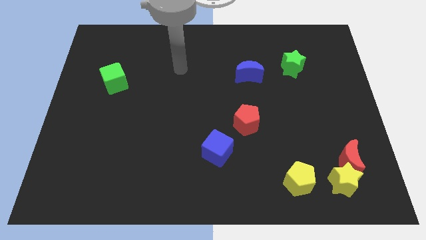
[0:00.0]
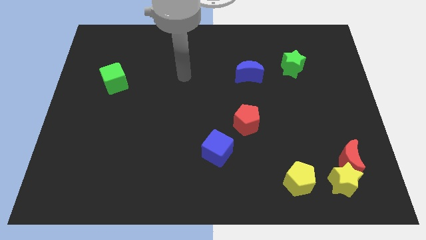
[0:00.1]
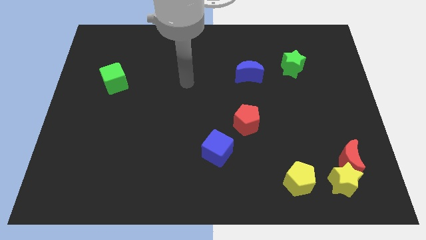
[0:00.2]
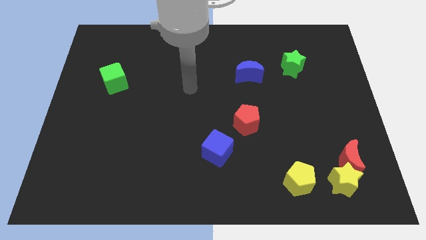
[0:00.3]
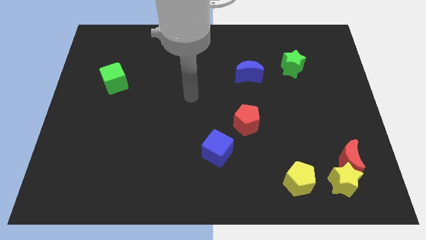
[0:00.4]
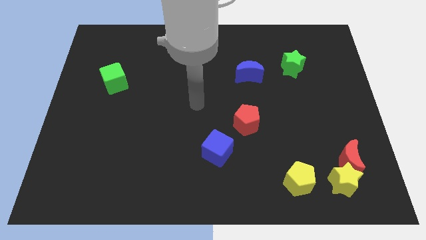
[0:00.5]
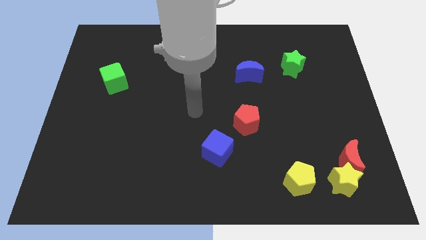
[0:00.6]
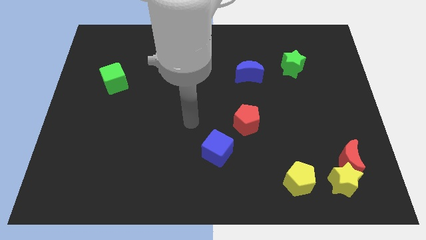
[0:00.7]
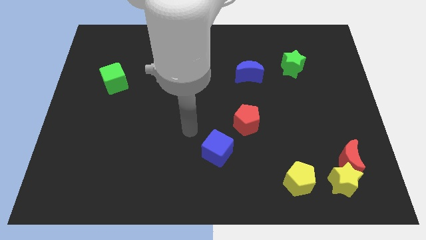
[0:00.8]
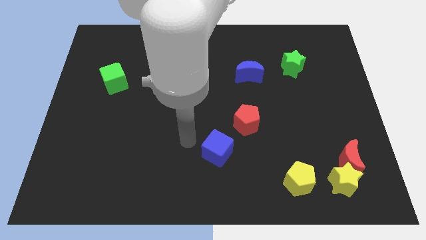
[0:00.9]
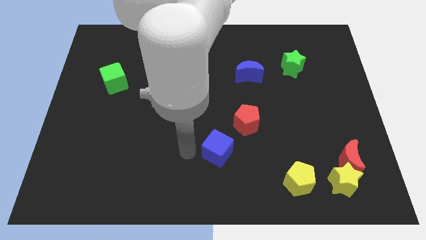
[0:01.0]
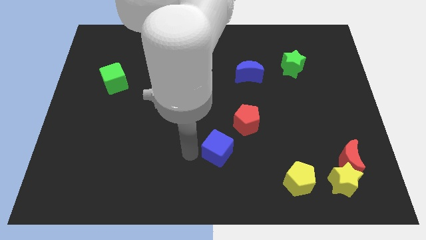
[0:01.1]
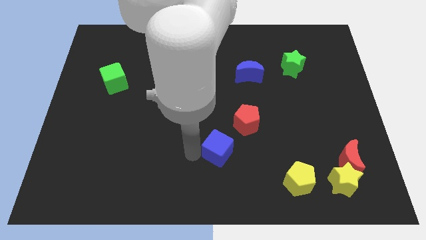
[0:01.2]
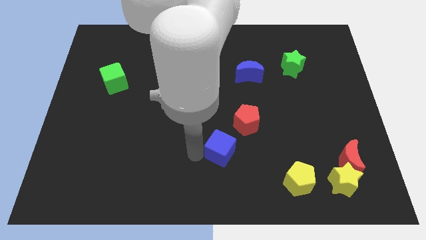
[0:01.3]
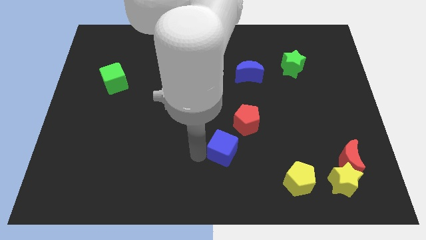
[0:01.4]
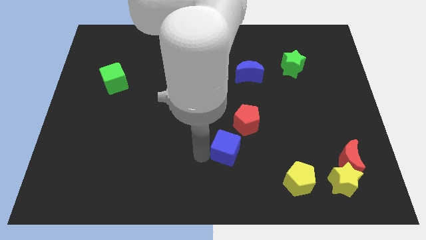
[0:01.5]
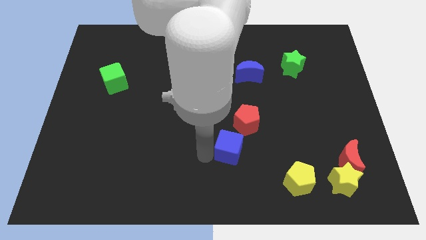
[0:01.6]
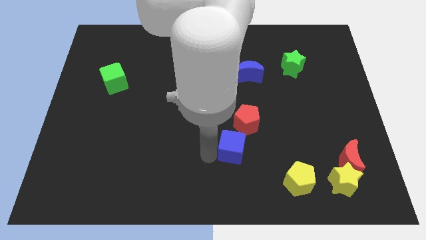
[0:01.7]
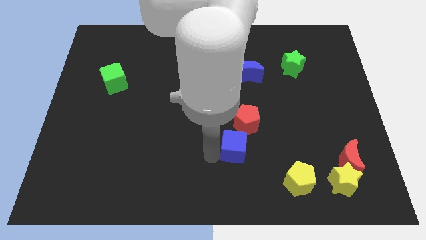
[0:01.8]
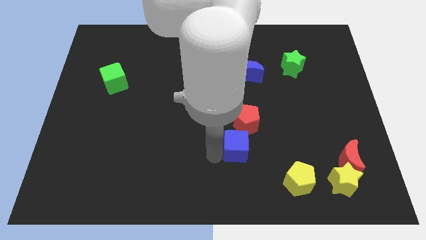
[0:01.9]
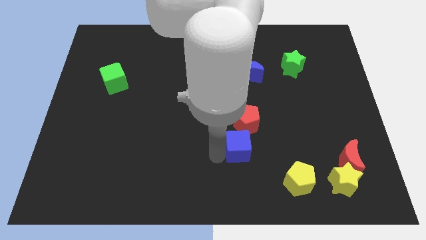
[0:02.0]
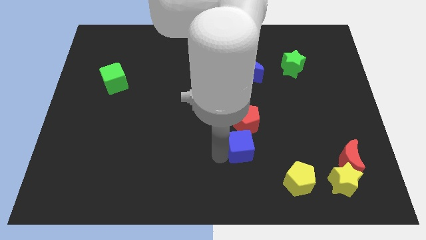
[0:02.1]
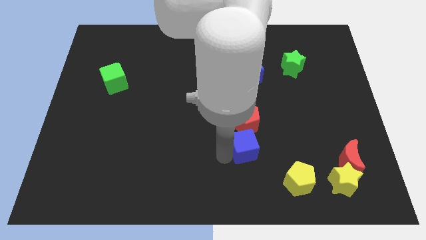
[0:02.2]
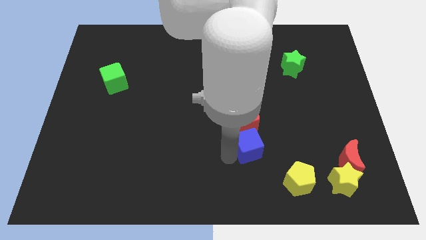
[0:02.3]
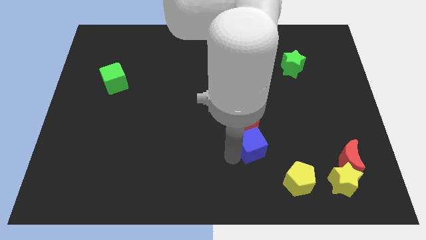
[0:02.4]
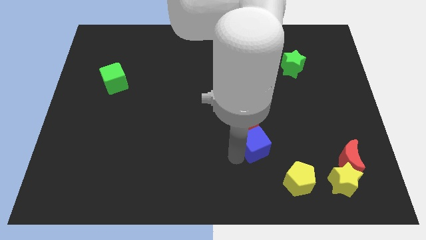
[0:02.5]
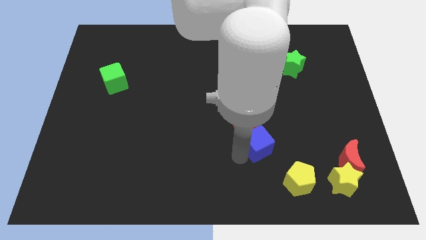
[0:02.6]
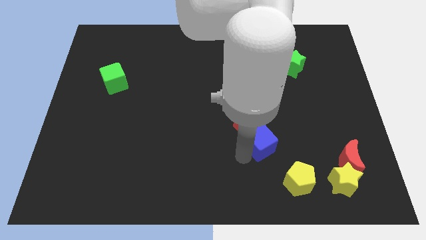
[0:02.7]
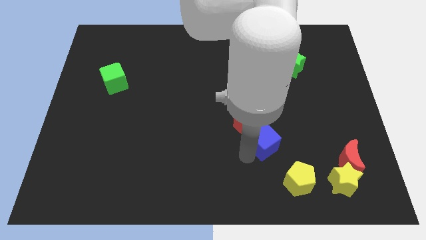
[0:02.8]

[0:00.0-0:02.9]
slightly move the blue cube upwards and to the right

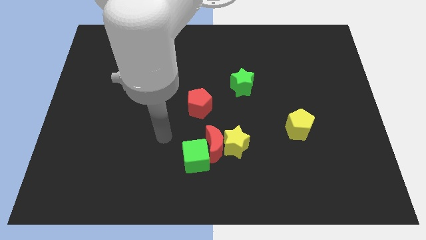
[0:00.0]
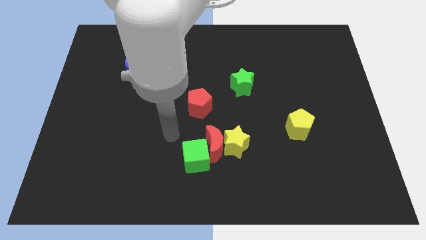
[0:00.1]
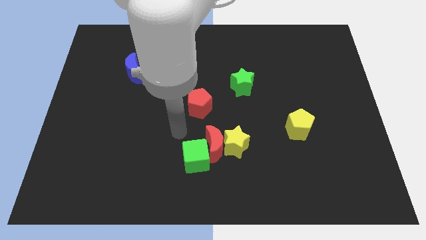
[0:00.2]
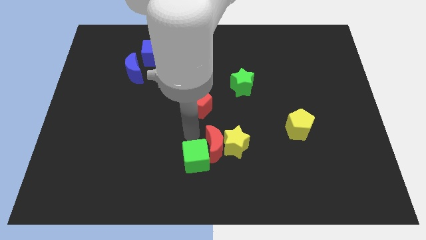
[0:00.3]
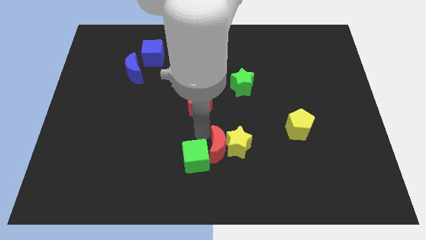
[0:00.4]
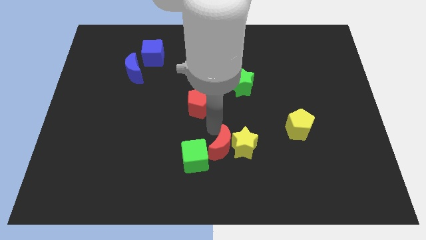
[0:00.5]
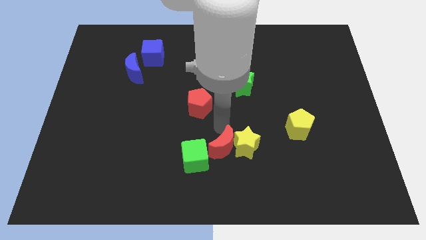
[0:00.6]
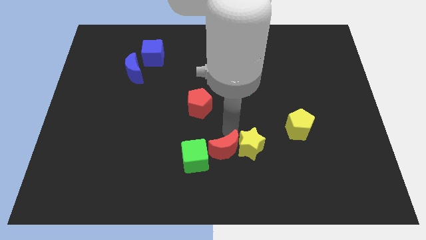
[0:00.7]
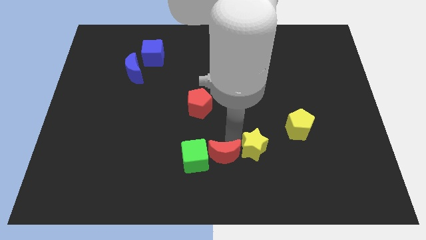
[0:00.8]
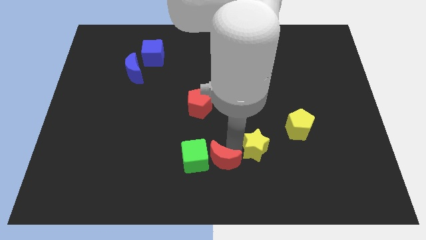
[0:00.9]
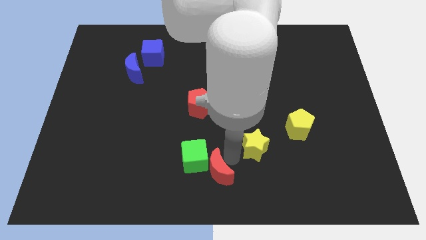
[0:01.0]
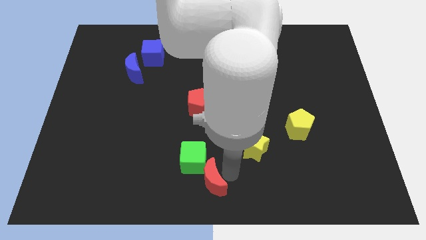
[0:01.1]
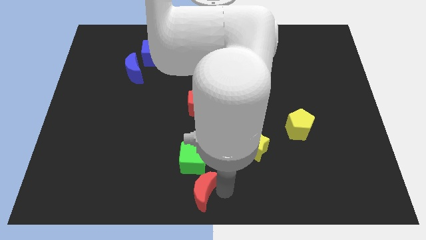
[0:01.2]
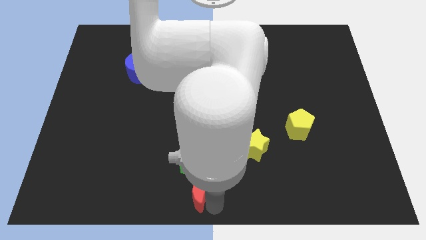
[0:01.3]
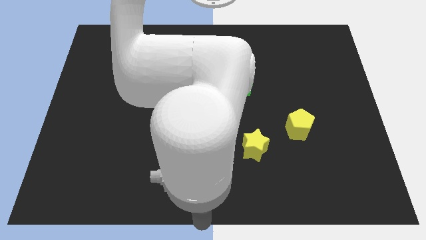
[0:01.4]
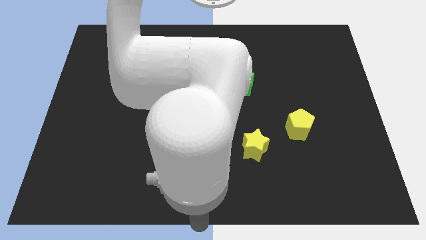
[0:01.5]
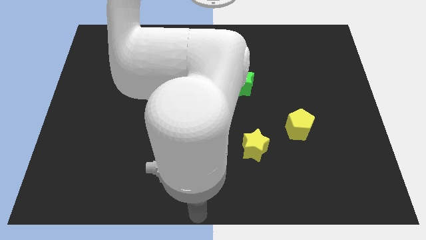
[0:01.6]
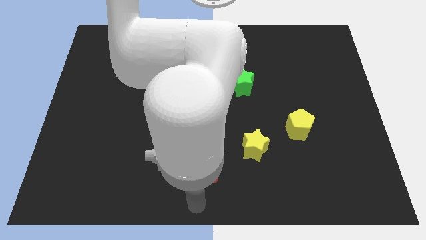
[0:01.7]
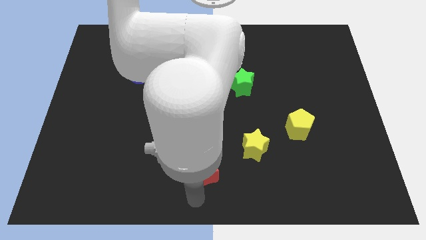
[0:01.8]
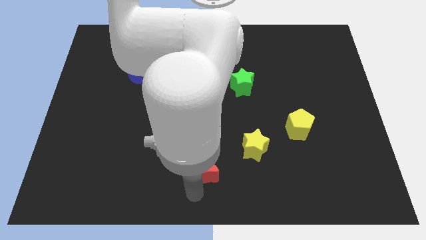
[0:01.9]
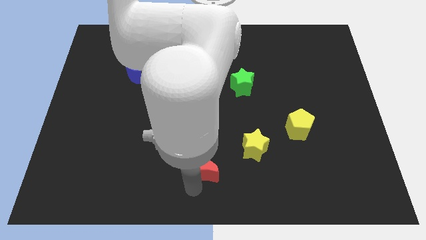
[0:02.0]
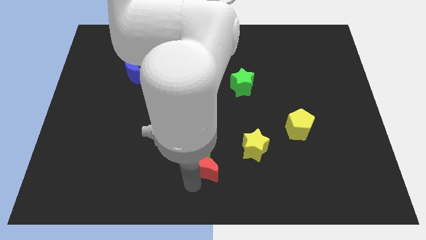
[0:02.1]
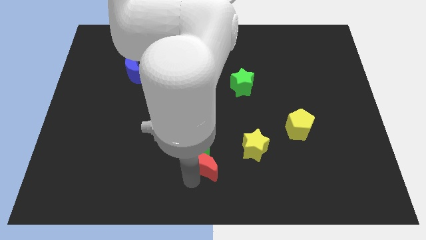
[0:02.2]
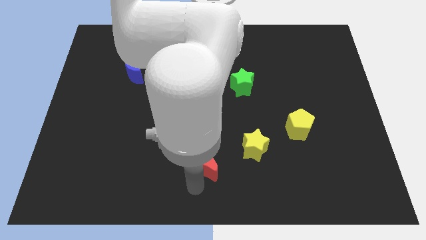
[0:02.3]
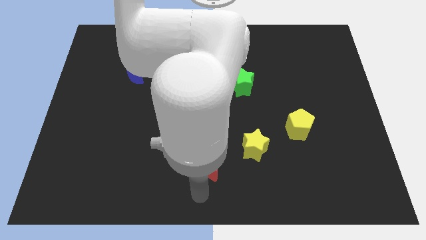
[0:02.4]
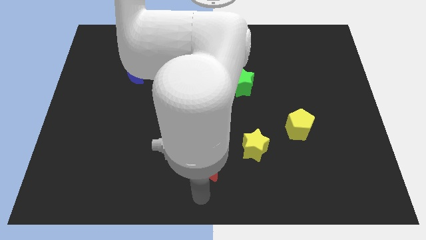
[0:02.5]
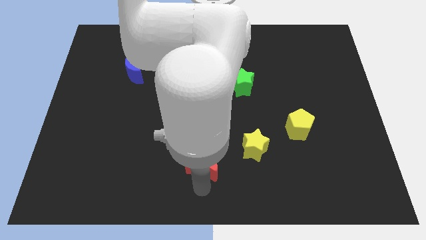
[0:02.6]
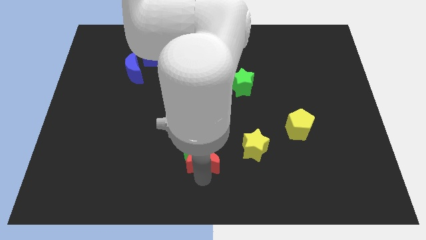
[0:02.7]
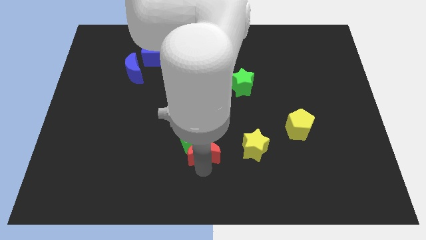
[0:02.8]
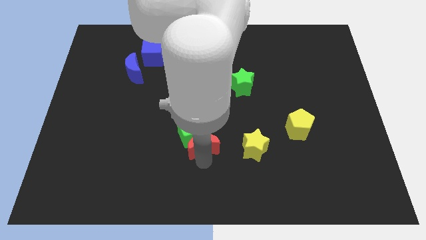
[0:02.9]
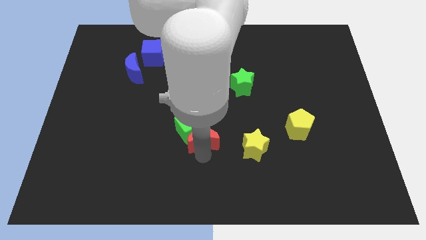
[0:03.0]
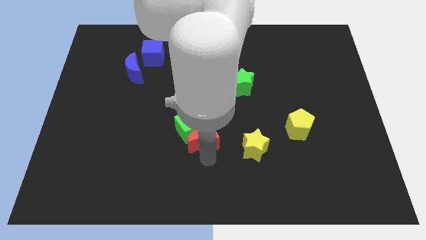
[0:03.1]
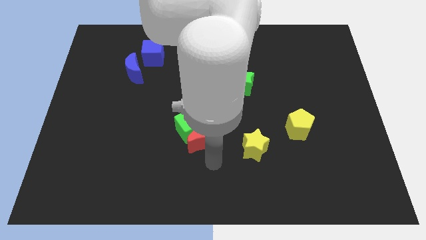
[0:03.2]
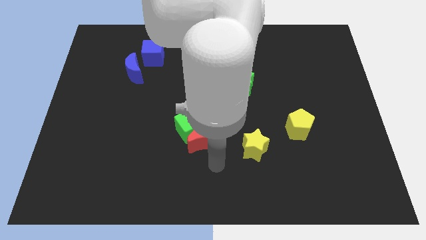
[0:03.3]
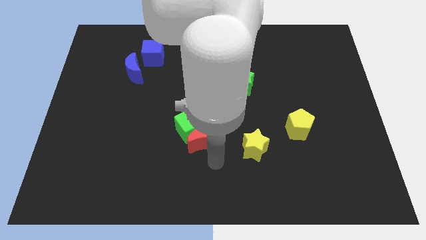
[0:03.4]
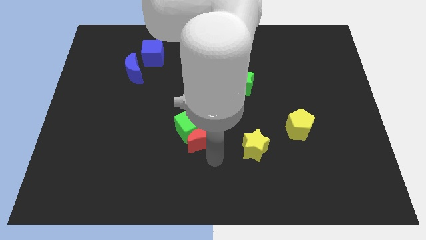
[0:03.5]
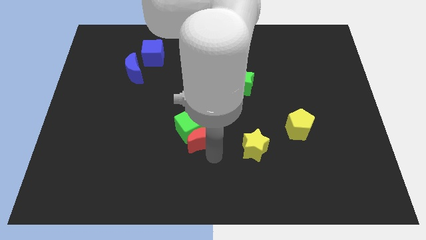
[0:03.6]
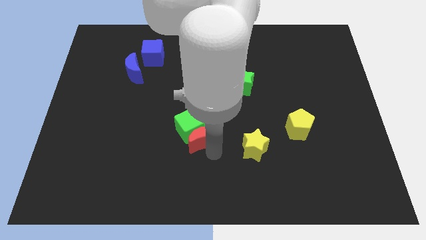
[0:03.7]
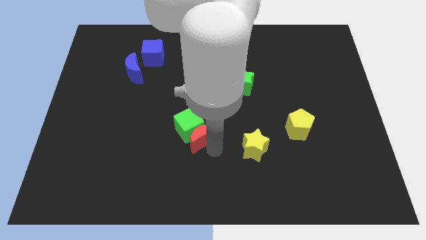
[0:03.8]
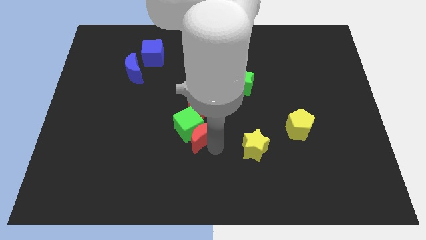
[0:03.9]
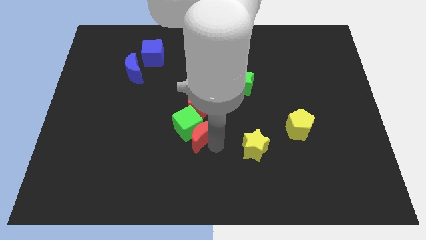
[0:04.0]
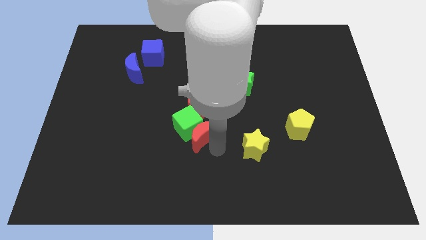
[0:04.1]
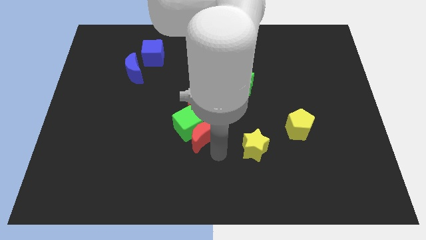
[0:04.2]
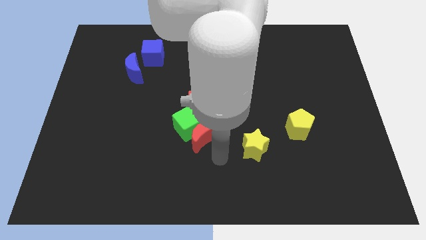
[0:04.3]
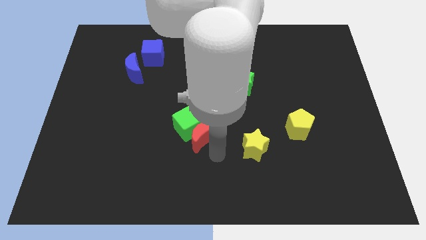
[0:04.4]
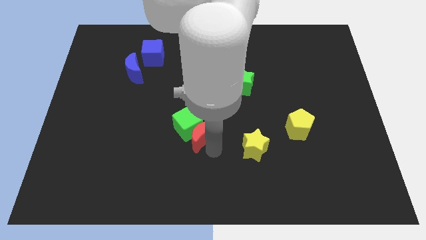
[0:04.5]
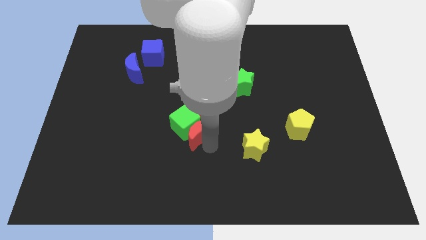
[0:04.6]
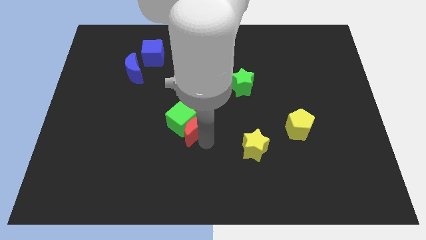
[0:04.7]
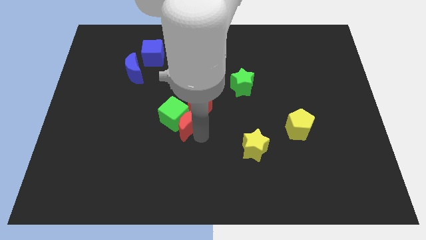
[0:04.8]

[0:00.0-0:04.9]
slightly move the red moon diagonally up and left

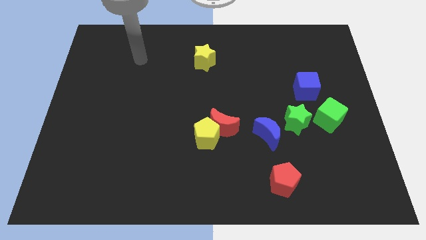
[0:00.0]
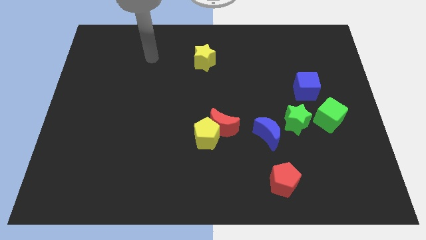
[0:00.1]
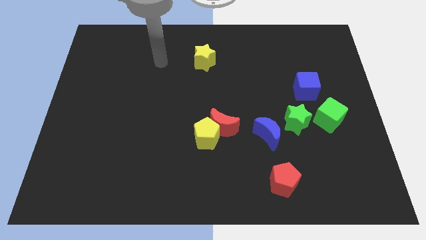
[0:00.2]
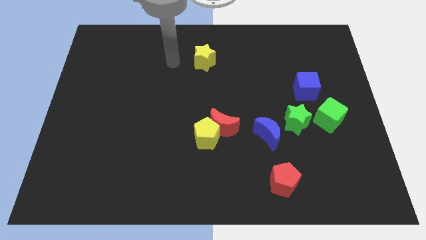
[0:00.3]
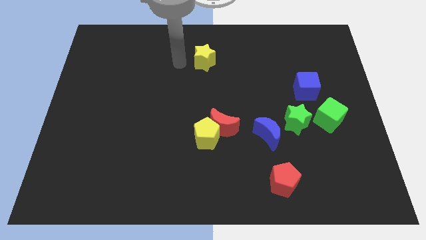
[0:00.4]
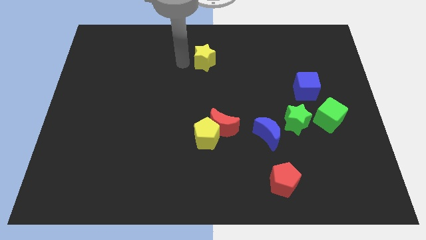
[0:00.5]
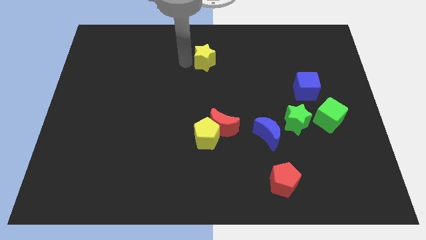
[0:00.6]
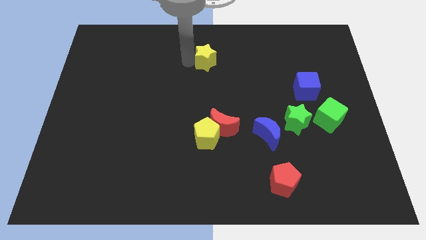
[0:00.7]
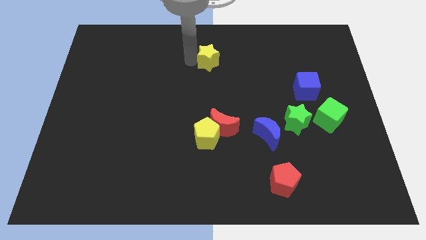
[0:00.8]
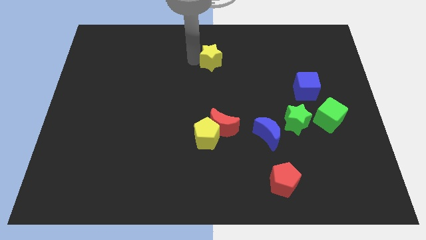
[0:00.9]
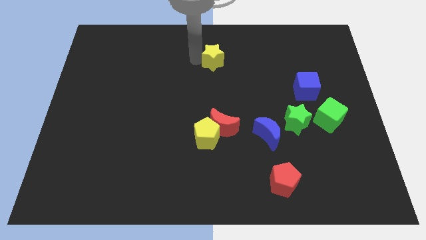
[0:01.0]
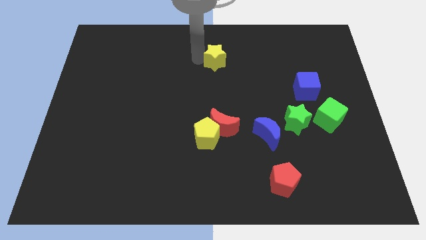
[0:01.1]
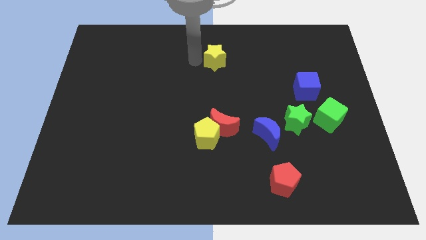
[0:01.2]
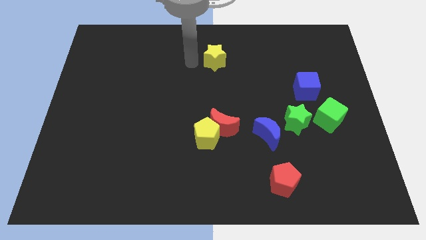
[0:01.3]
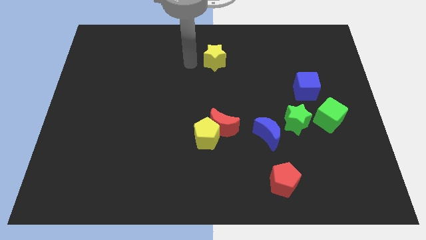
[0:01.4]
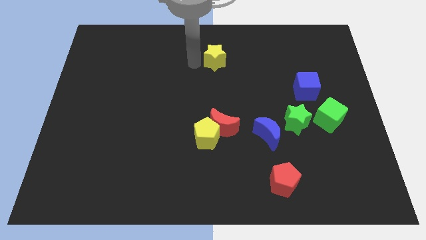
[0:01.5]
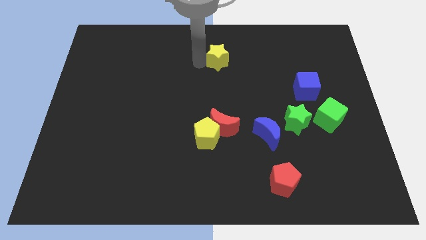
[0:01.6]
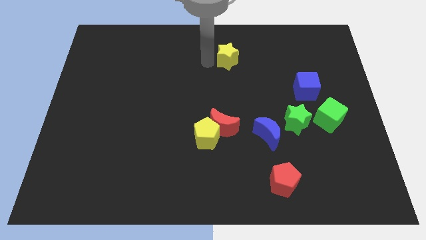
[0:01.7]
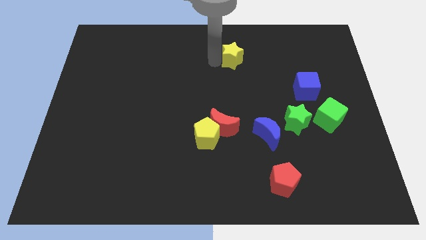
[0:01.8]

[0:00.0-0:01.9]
slightly move the yellow star to the right
